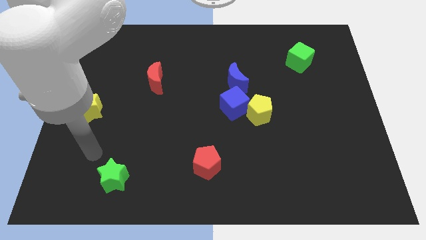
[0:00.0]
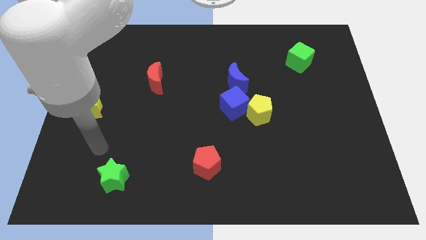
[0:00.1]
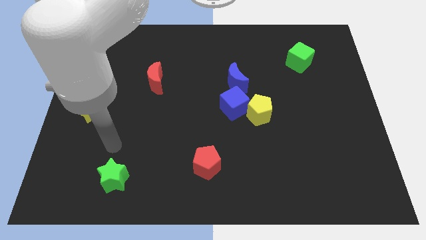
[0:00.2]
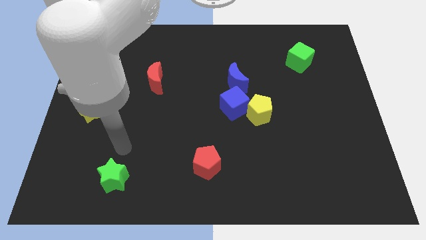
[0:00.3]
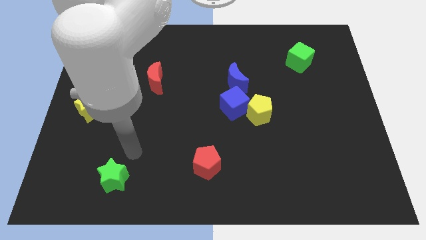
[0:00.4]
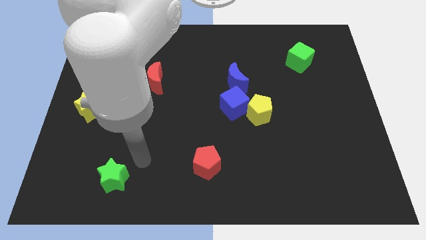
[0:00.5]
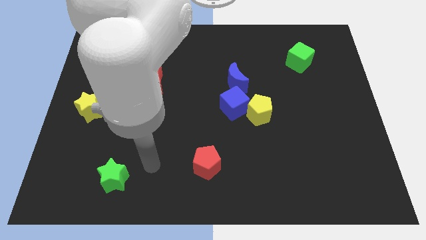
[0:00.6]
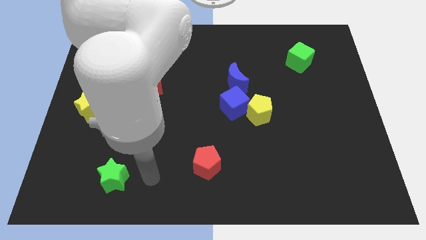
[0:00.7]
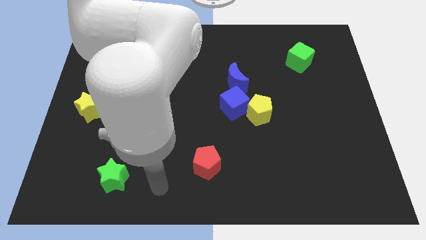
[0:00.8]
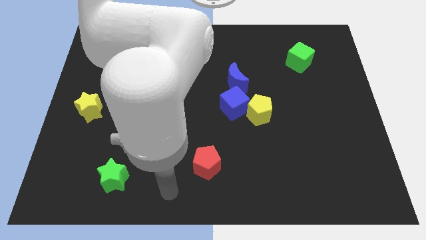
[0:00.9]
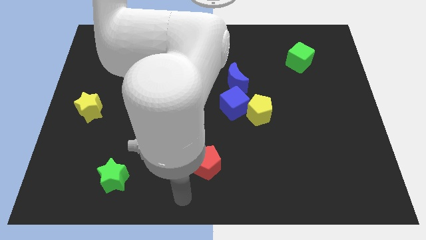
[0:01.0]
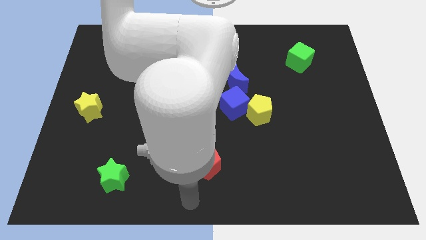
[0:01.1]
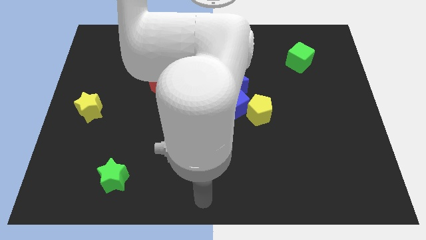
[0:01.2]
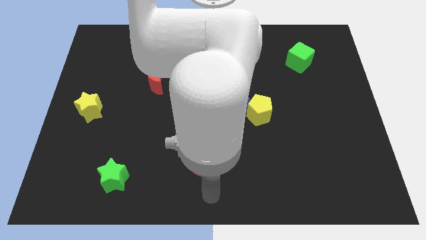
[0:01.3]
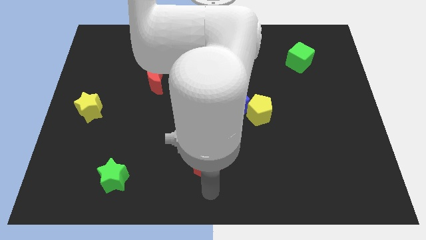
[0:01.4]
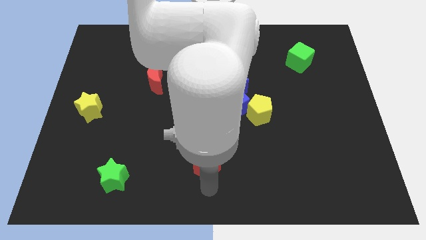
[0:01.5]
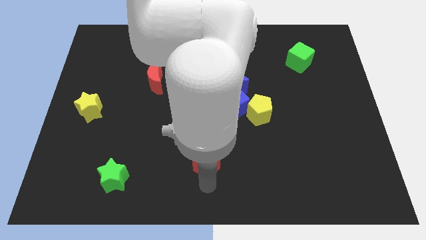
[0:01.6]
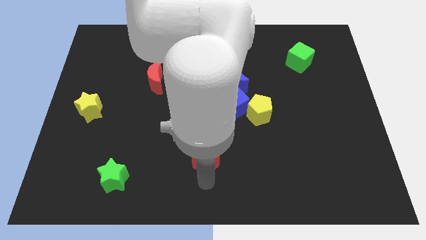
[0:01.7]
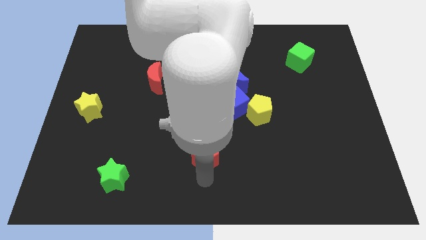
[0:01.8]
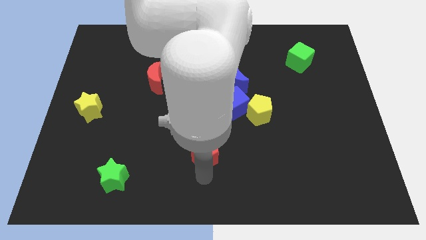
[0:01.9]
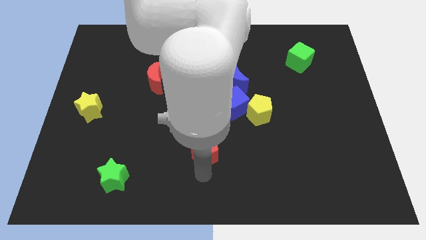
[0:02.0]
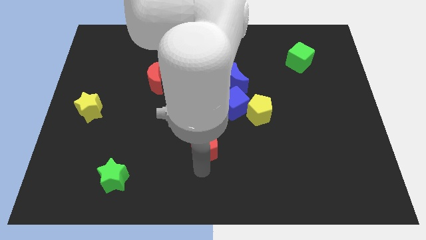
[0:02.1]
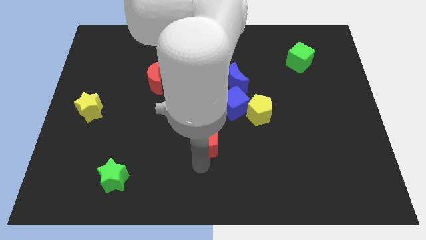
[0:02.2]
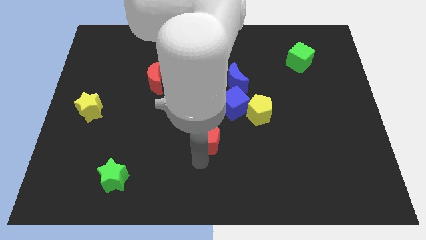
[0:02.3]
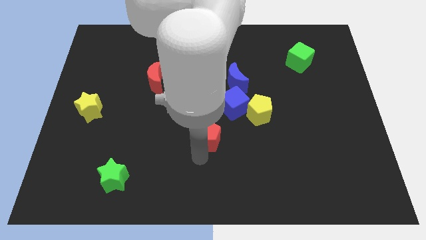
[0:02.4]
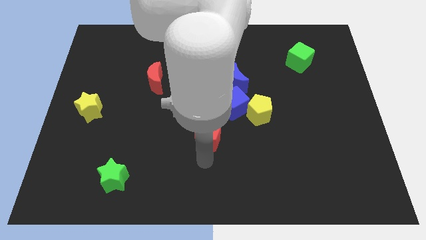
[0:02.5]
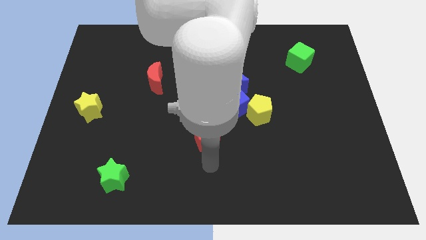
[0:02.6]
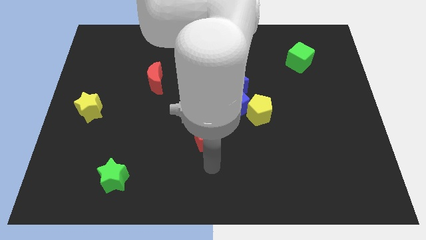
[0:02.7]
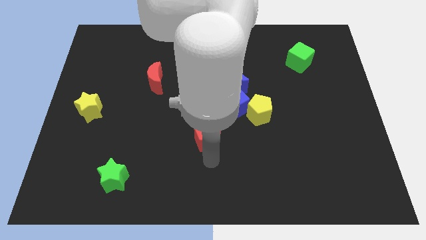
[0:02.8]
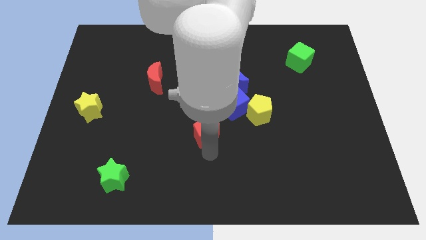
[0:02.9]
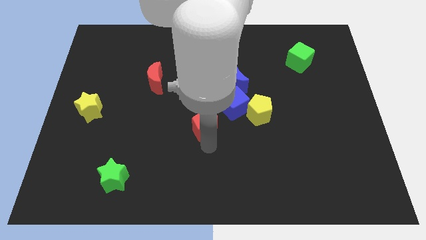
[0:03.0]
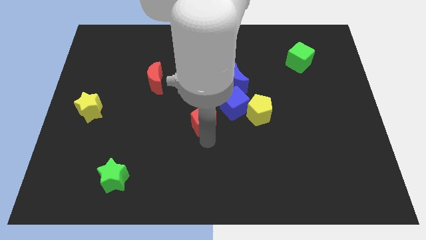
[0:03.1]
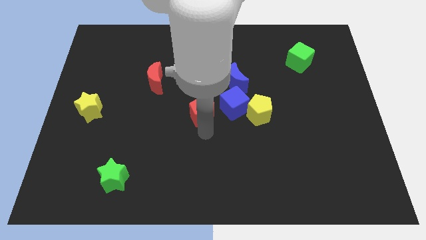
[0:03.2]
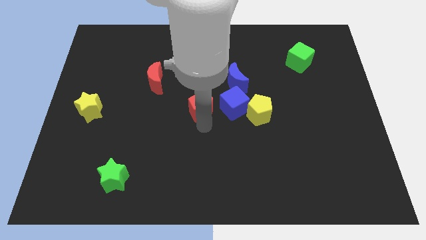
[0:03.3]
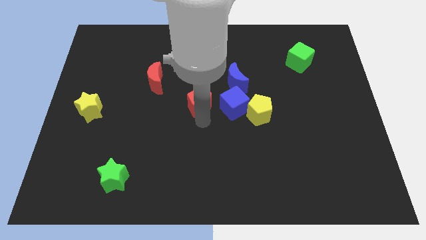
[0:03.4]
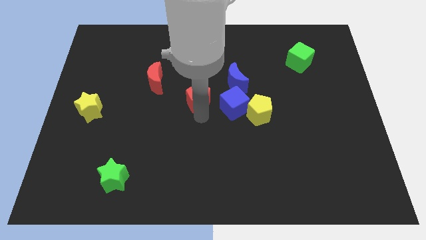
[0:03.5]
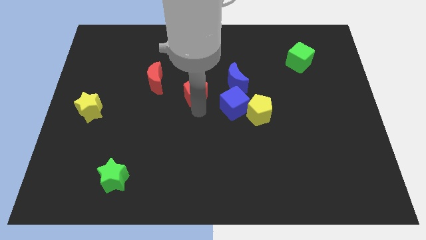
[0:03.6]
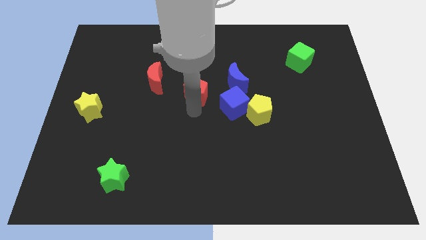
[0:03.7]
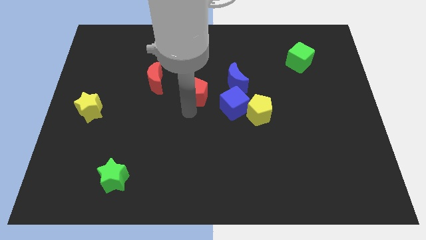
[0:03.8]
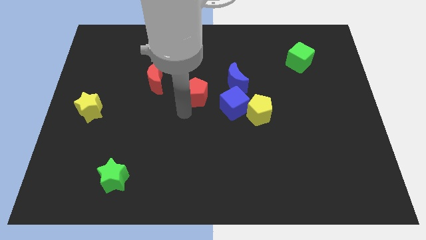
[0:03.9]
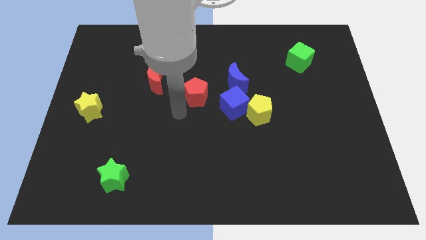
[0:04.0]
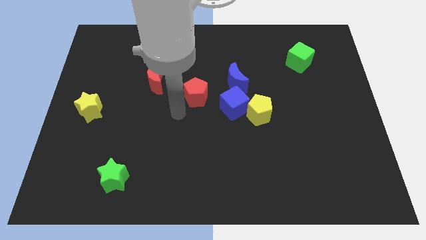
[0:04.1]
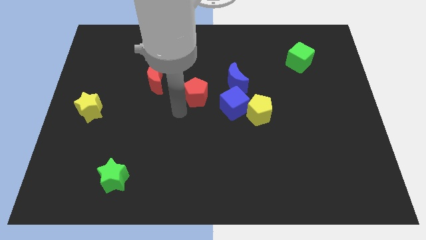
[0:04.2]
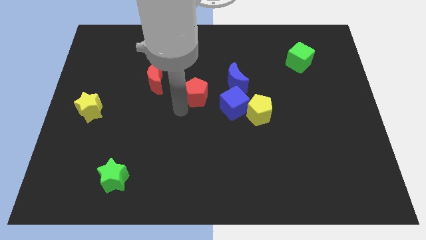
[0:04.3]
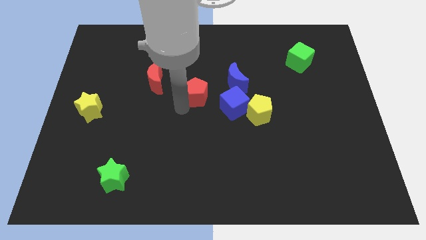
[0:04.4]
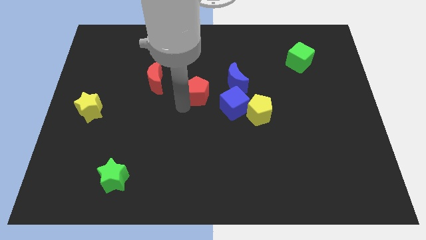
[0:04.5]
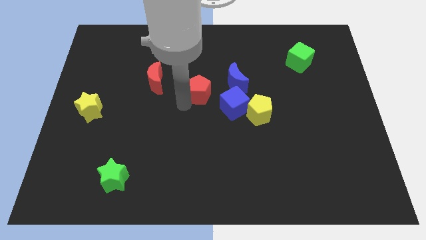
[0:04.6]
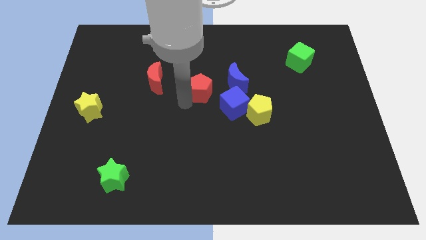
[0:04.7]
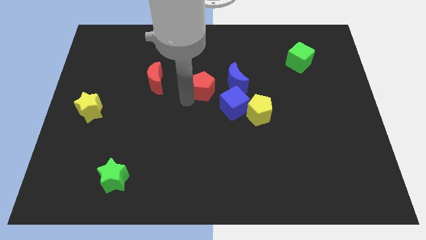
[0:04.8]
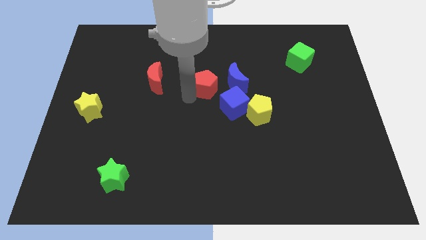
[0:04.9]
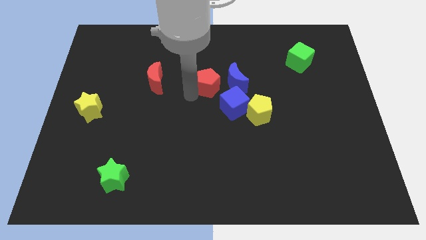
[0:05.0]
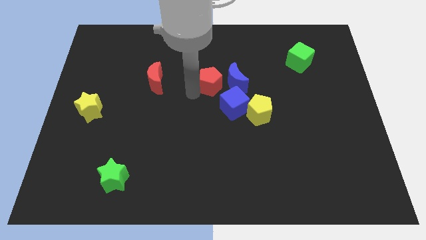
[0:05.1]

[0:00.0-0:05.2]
move the red pentagon diagonally up and to the left of the blue moon

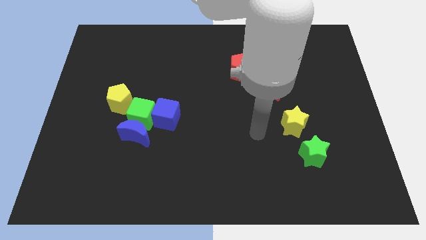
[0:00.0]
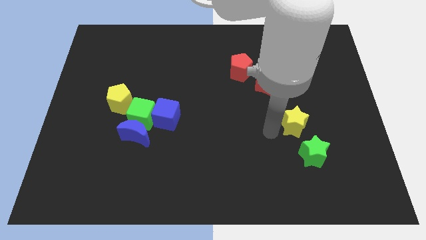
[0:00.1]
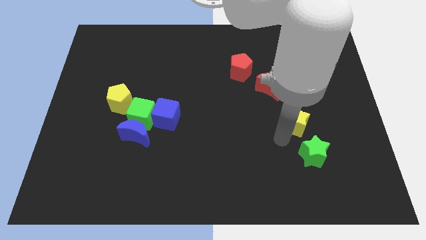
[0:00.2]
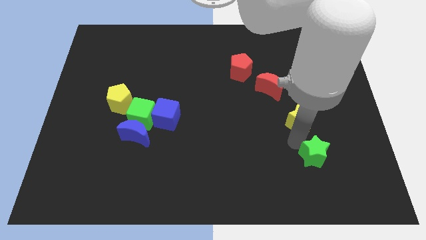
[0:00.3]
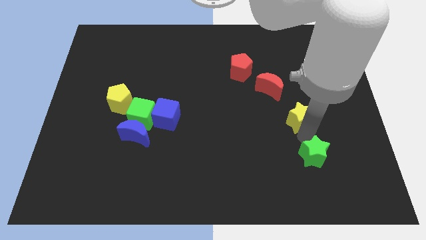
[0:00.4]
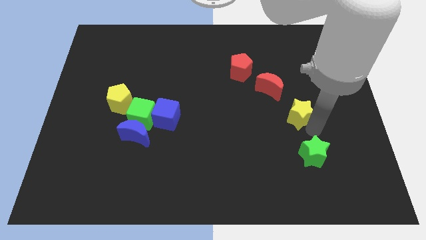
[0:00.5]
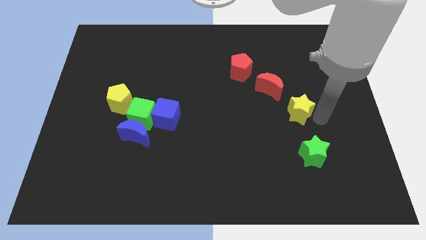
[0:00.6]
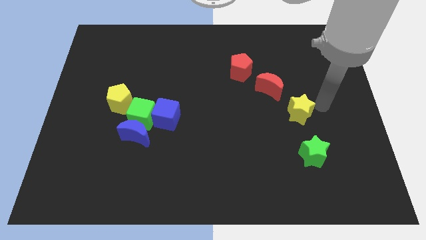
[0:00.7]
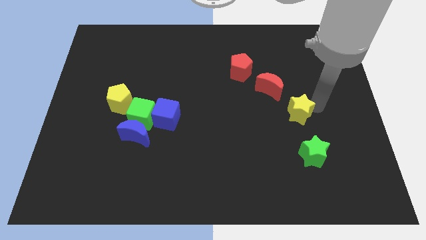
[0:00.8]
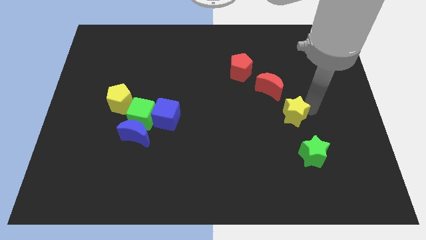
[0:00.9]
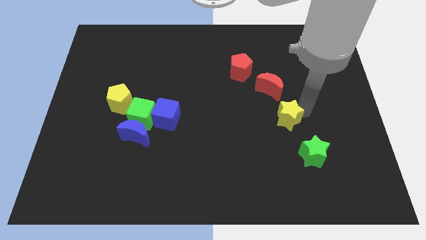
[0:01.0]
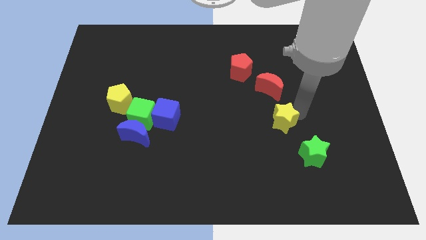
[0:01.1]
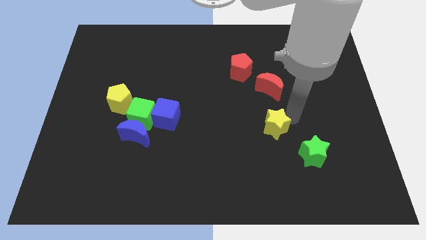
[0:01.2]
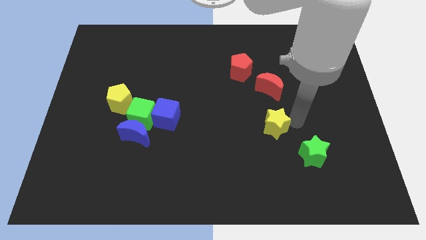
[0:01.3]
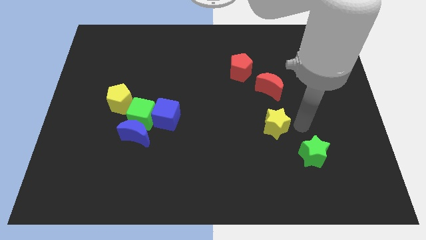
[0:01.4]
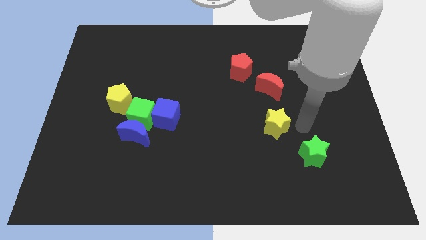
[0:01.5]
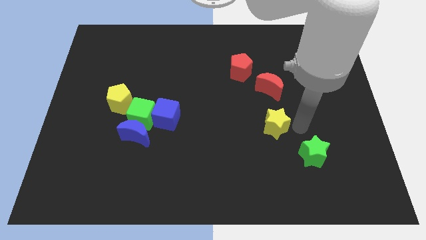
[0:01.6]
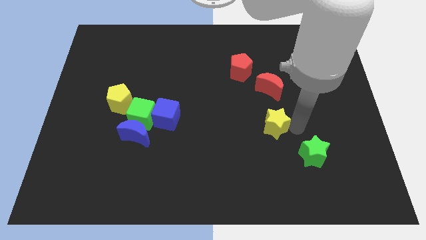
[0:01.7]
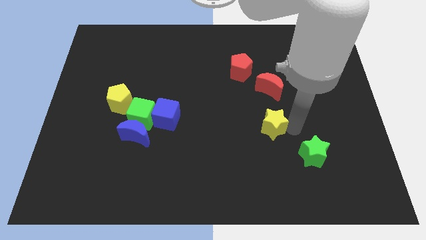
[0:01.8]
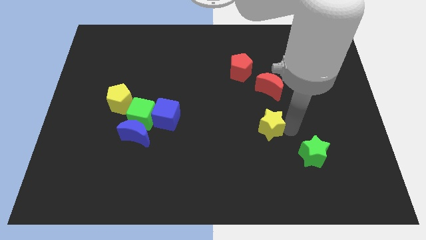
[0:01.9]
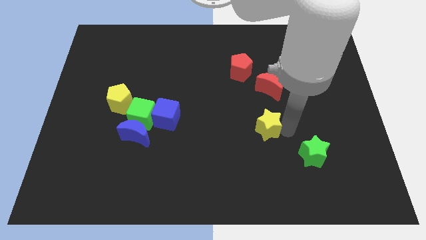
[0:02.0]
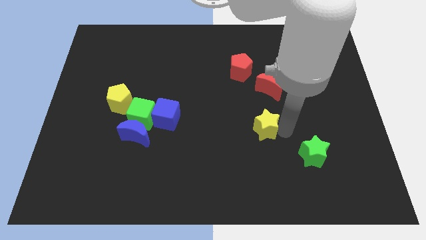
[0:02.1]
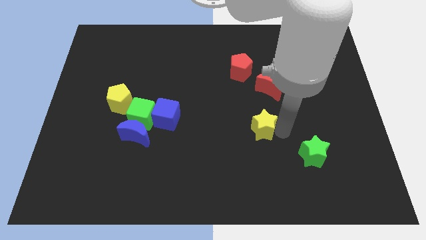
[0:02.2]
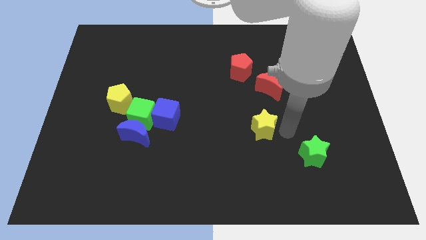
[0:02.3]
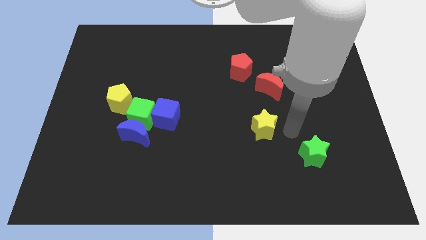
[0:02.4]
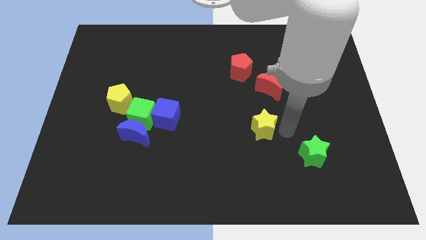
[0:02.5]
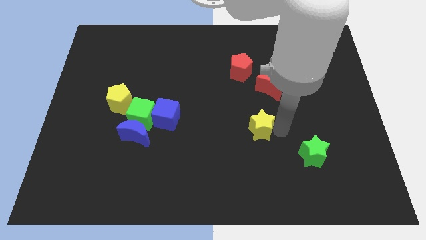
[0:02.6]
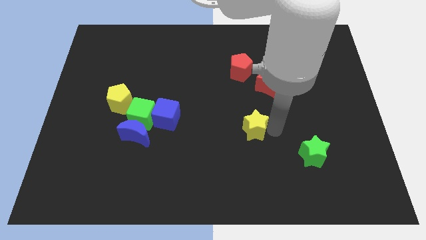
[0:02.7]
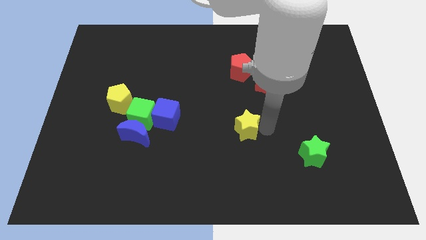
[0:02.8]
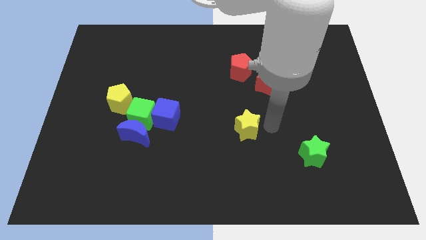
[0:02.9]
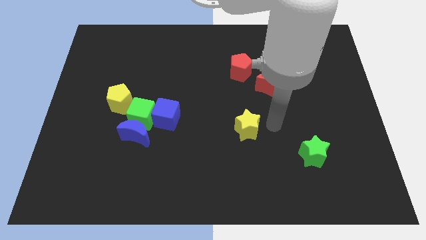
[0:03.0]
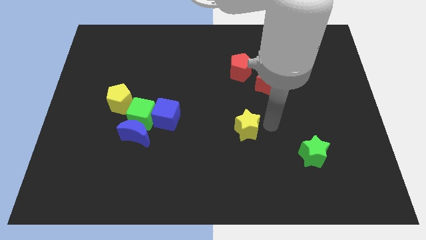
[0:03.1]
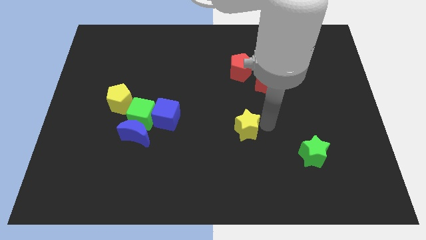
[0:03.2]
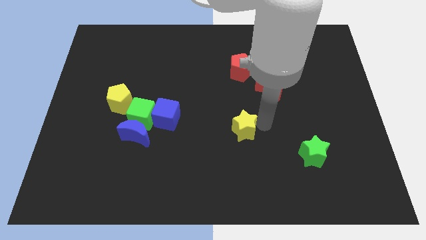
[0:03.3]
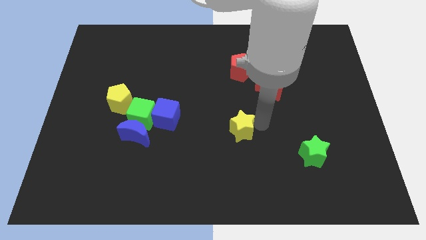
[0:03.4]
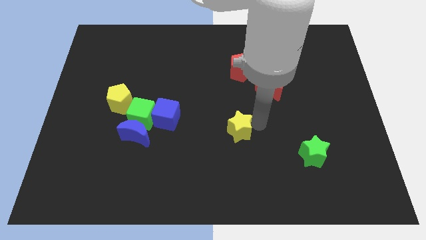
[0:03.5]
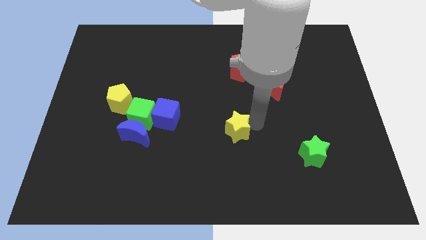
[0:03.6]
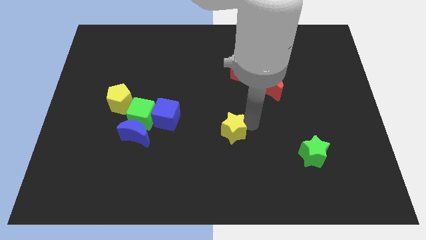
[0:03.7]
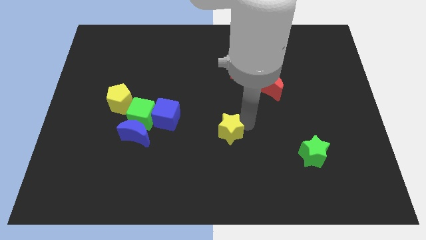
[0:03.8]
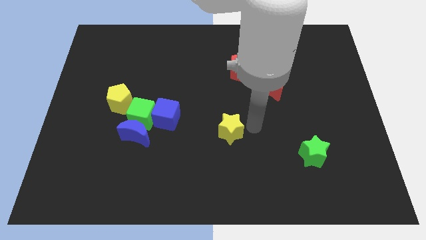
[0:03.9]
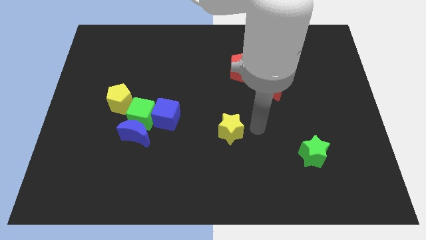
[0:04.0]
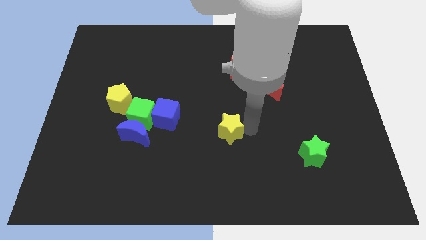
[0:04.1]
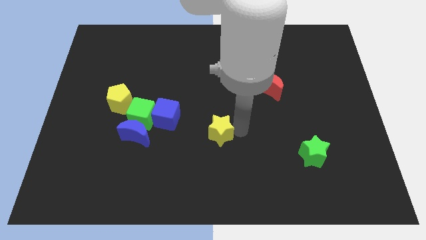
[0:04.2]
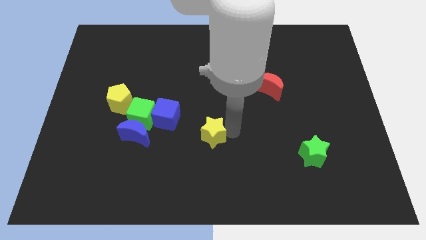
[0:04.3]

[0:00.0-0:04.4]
push the yellow star to the bottom right side of the blue cube
